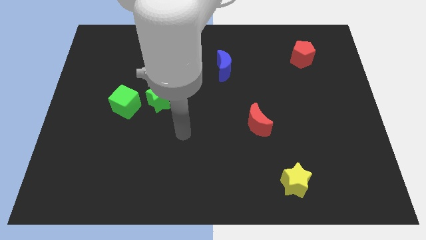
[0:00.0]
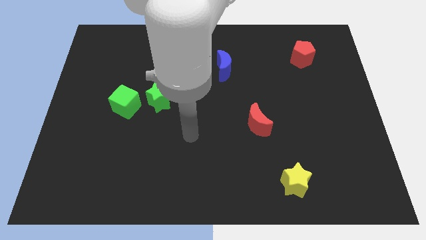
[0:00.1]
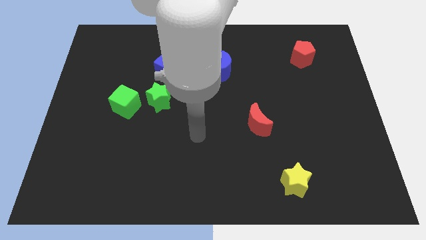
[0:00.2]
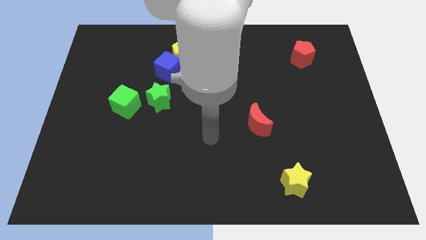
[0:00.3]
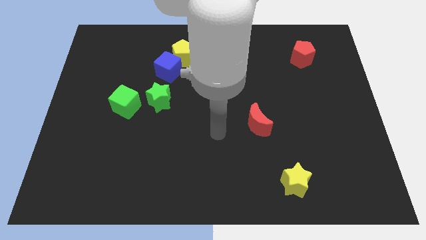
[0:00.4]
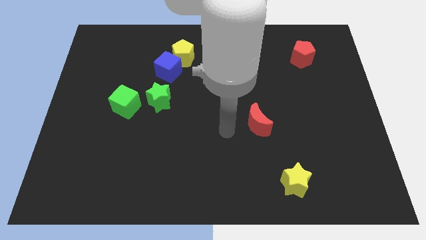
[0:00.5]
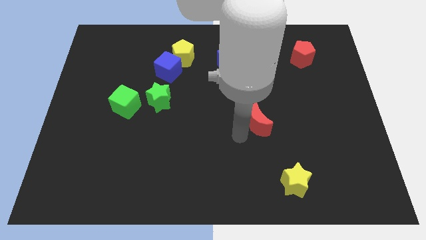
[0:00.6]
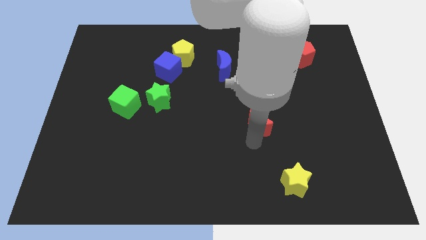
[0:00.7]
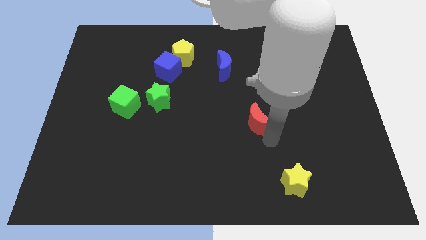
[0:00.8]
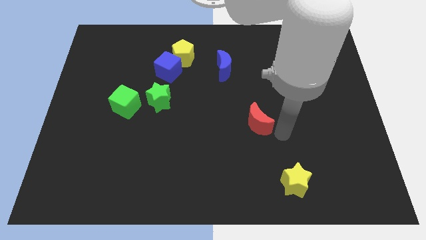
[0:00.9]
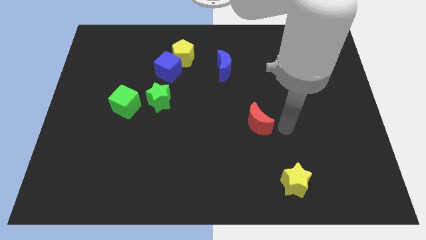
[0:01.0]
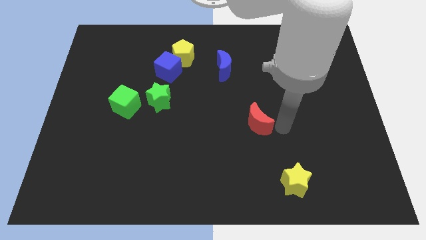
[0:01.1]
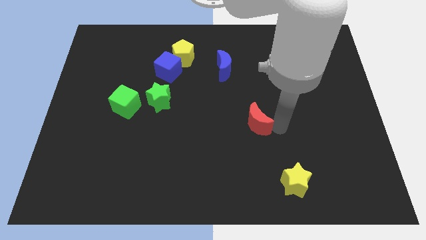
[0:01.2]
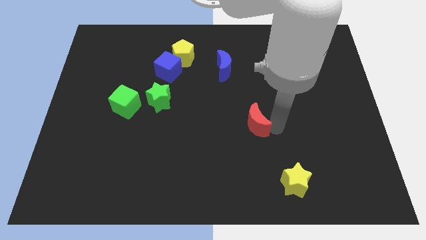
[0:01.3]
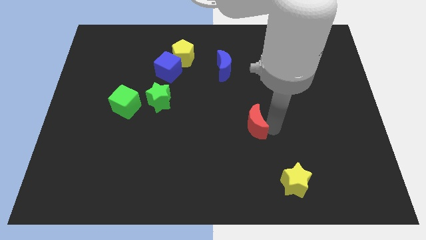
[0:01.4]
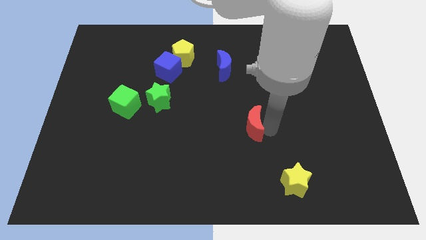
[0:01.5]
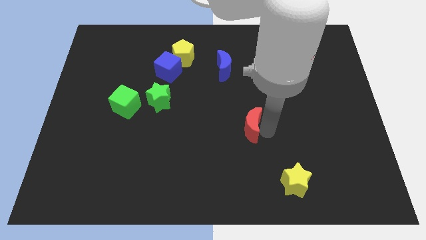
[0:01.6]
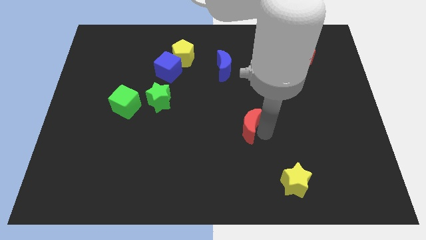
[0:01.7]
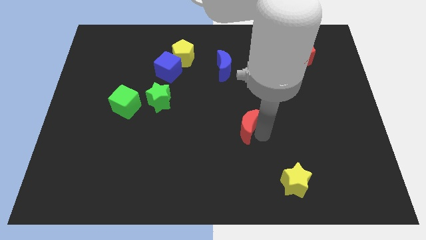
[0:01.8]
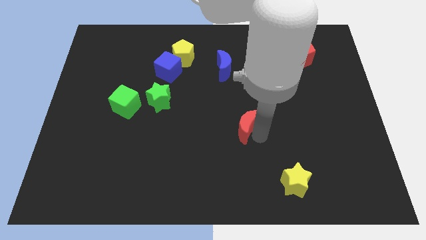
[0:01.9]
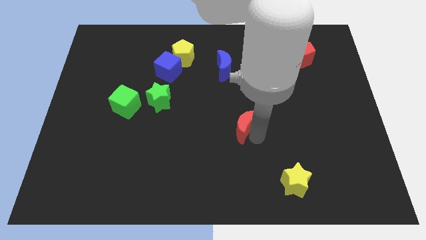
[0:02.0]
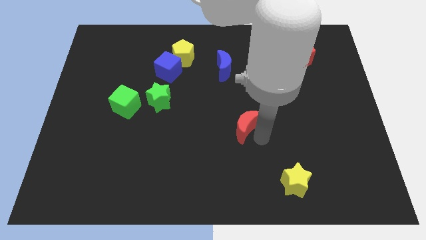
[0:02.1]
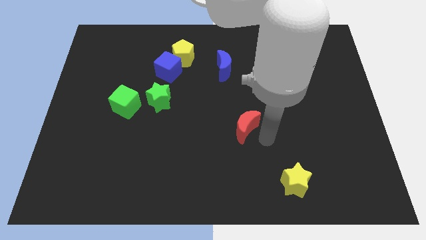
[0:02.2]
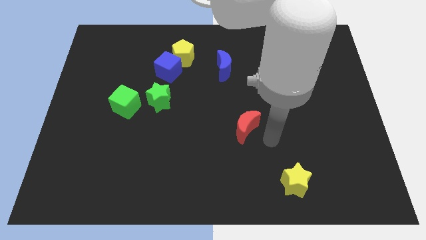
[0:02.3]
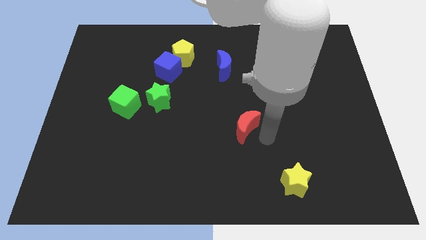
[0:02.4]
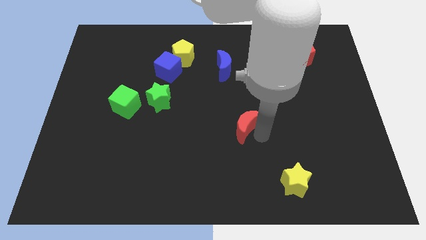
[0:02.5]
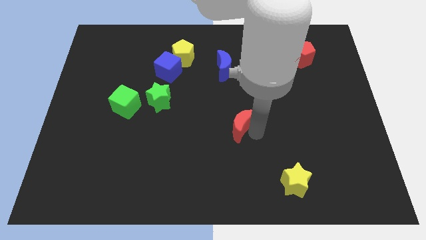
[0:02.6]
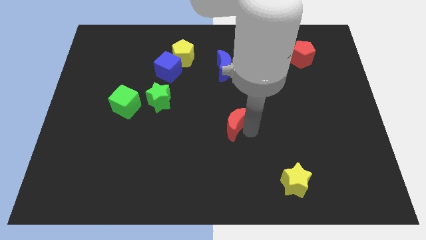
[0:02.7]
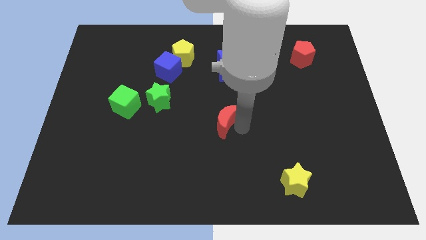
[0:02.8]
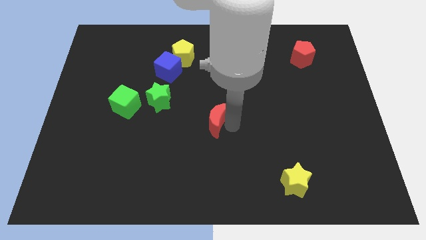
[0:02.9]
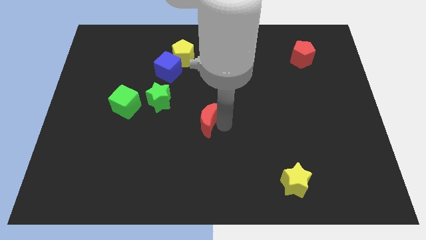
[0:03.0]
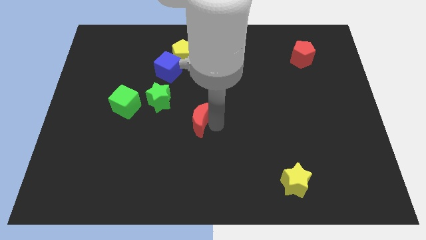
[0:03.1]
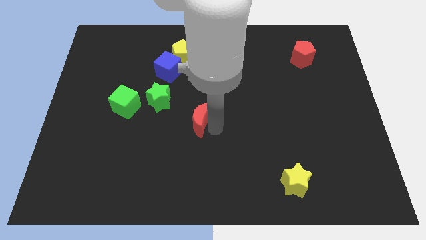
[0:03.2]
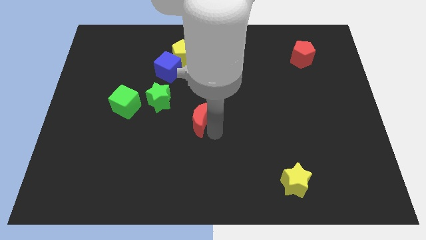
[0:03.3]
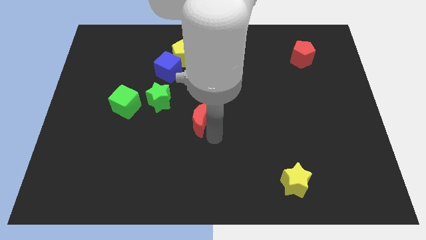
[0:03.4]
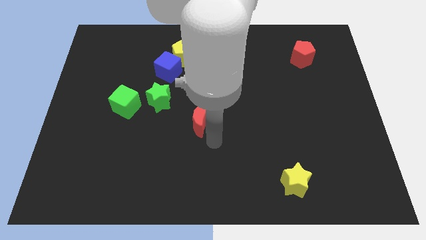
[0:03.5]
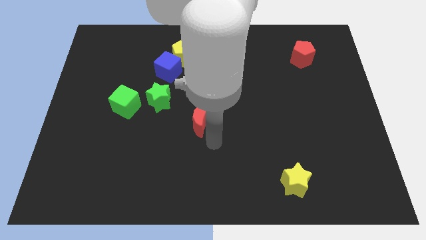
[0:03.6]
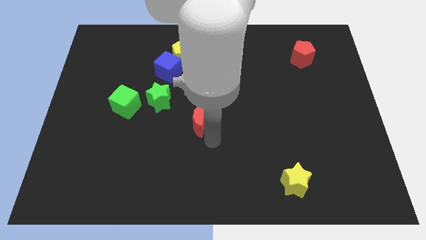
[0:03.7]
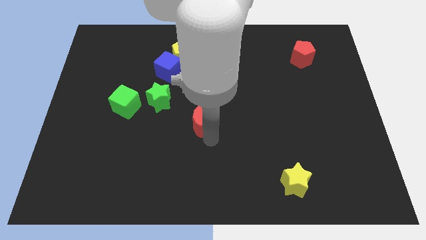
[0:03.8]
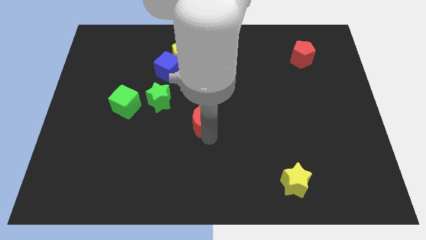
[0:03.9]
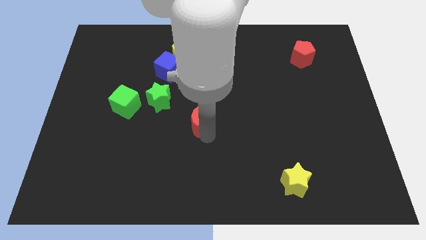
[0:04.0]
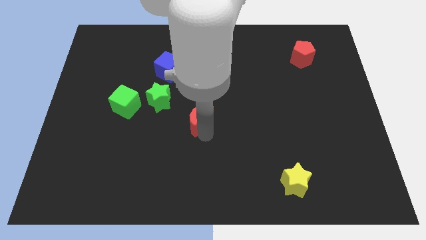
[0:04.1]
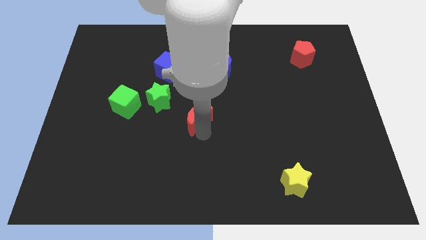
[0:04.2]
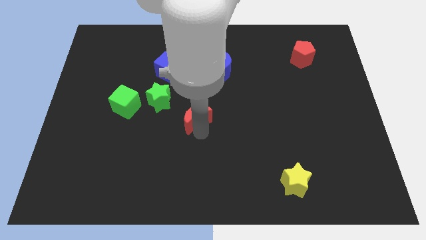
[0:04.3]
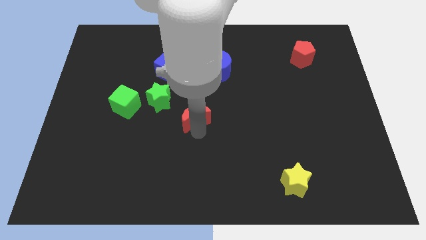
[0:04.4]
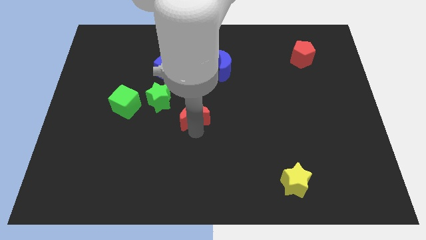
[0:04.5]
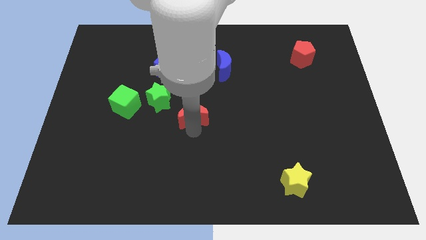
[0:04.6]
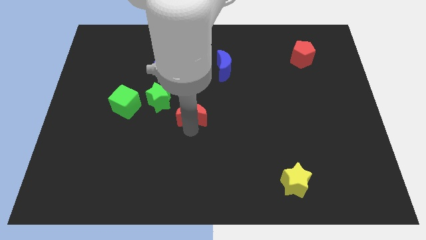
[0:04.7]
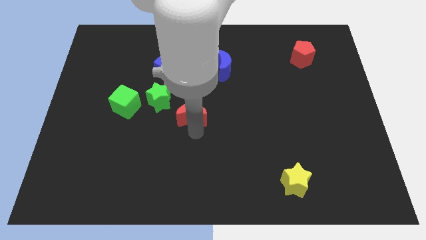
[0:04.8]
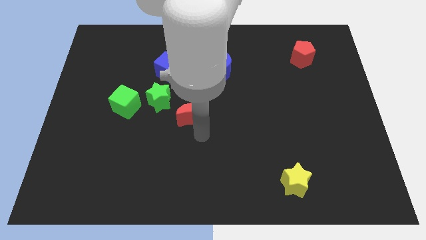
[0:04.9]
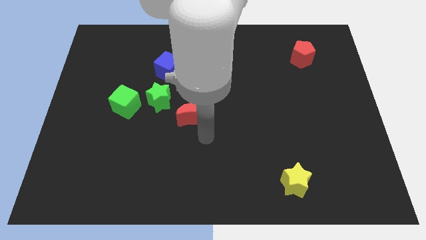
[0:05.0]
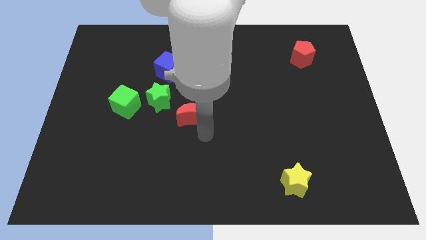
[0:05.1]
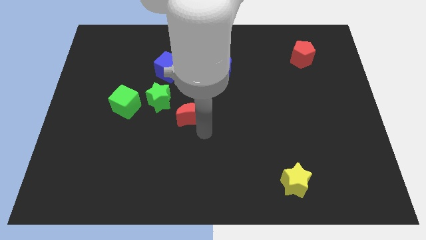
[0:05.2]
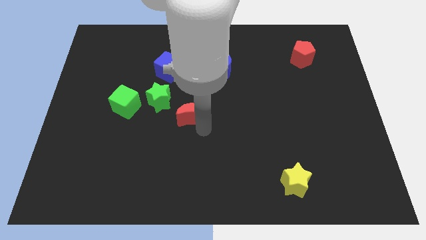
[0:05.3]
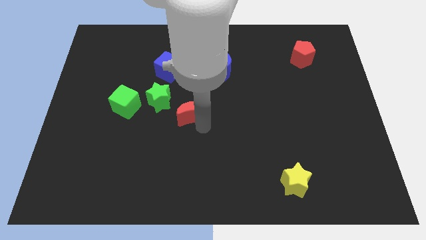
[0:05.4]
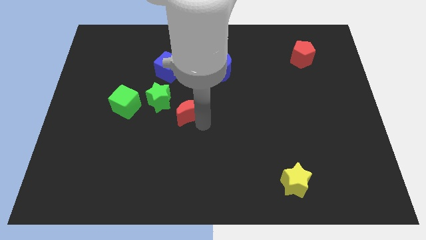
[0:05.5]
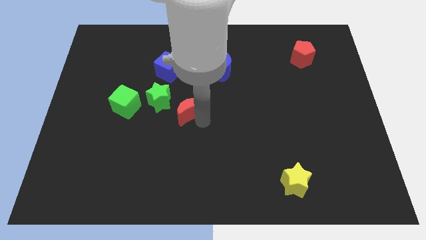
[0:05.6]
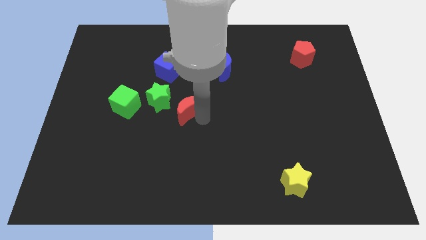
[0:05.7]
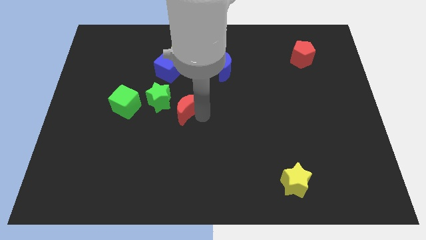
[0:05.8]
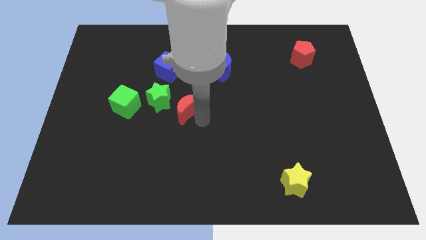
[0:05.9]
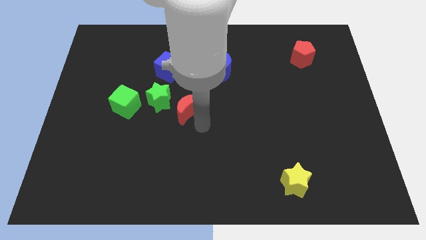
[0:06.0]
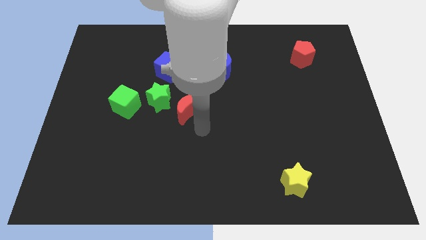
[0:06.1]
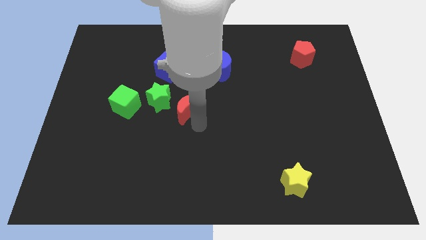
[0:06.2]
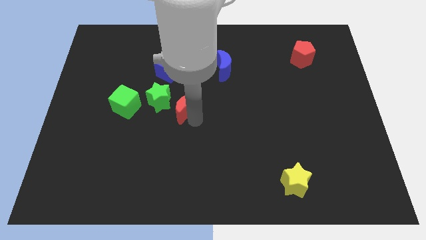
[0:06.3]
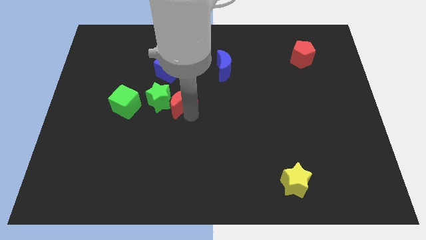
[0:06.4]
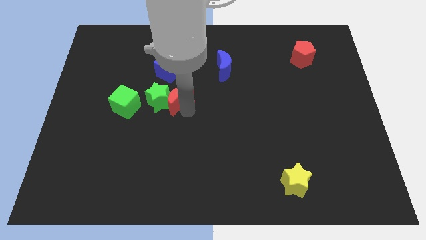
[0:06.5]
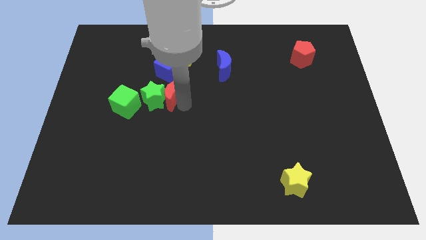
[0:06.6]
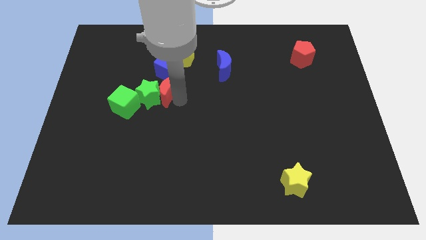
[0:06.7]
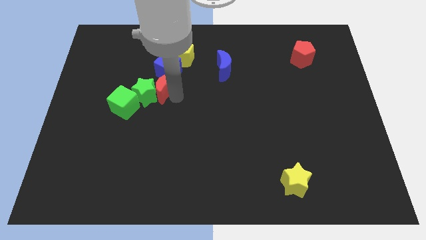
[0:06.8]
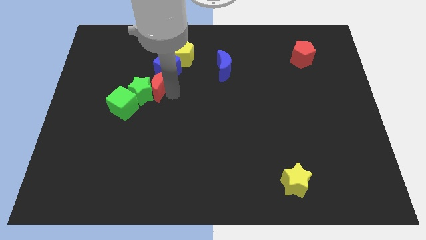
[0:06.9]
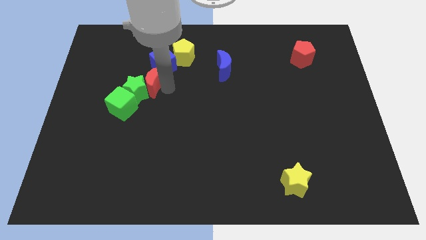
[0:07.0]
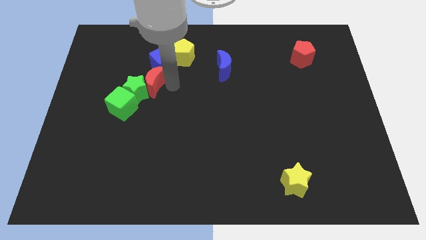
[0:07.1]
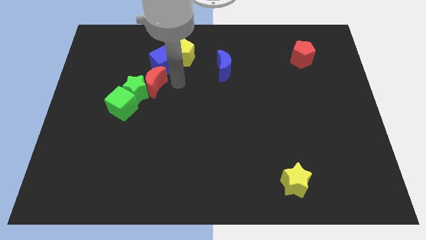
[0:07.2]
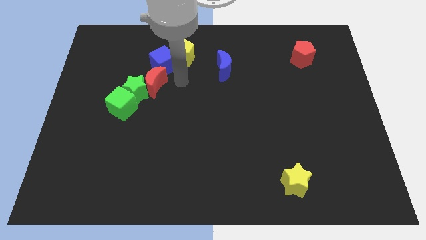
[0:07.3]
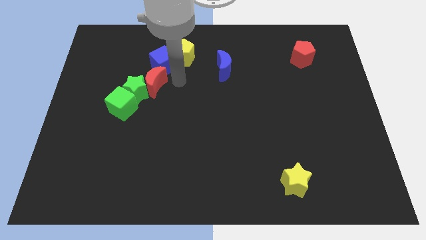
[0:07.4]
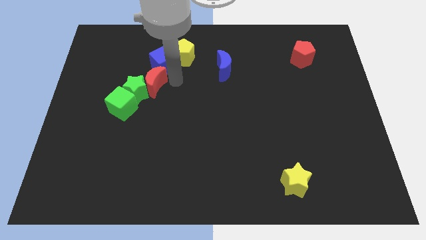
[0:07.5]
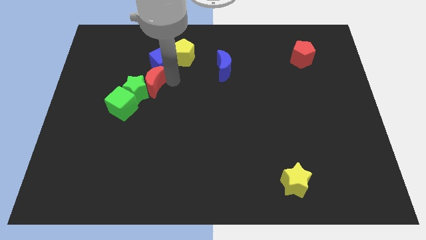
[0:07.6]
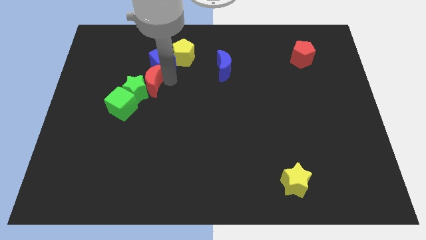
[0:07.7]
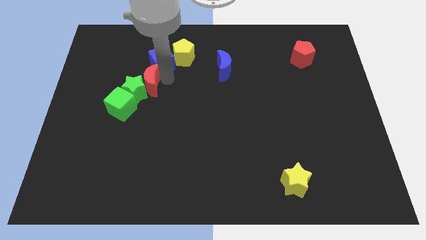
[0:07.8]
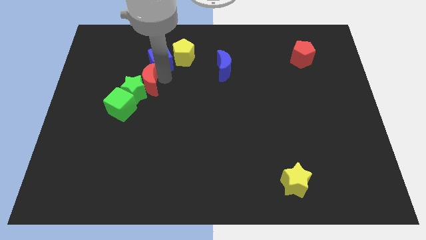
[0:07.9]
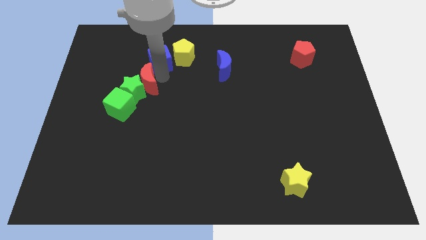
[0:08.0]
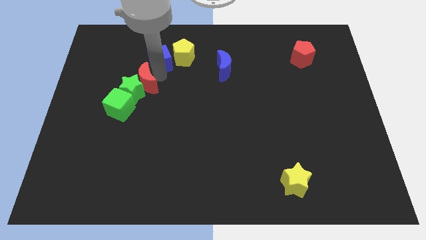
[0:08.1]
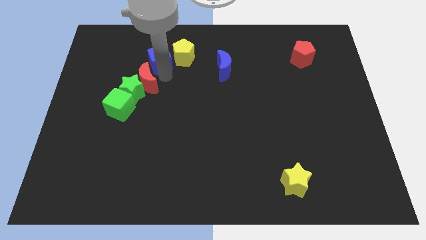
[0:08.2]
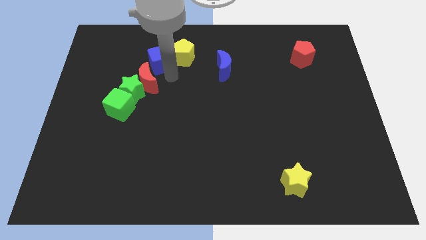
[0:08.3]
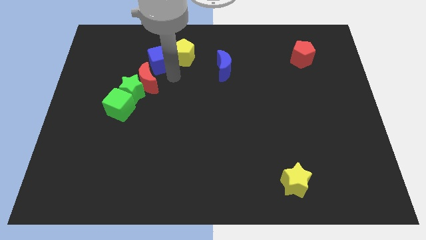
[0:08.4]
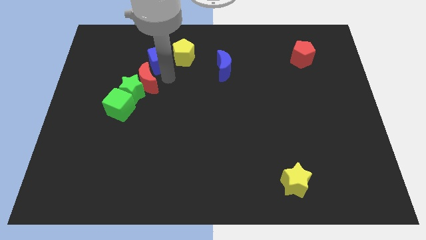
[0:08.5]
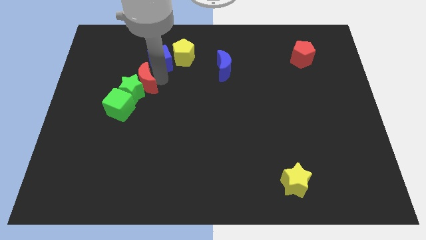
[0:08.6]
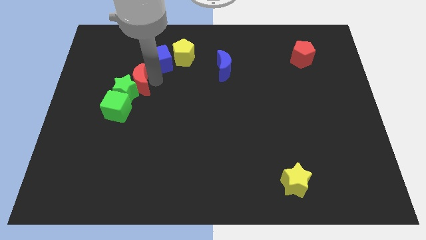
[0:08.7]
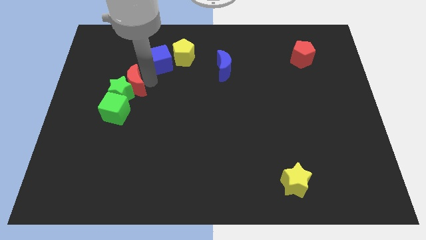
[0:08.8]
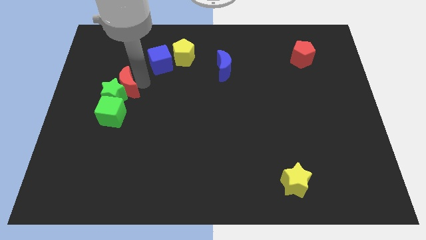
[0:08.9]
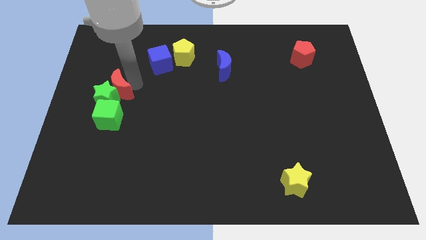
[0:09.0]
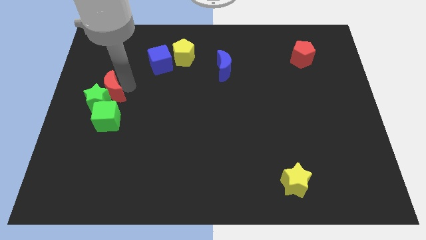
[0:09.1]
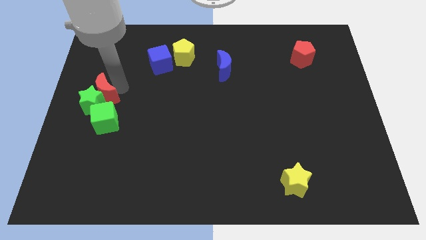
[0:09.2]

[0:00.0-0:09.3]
push the red moon diagonally up and to the left of the green cube
